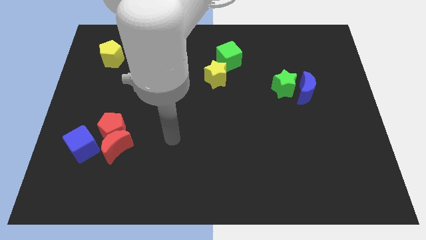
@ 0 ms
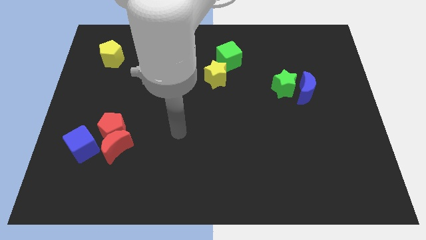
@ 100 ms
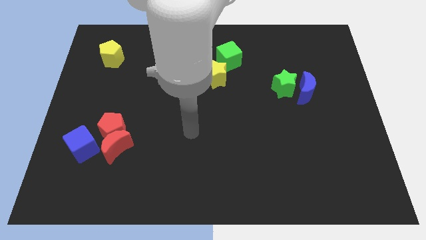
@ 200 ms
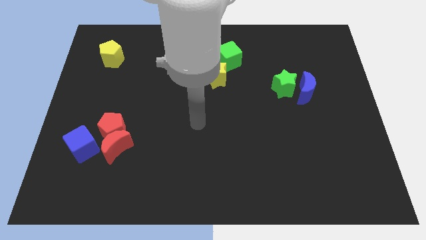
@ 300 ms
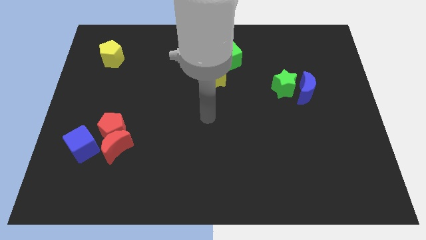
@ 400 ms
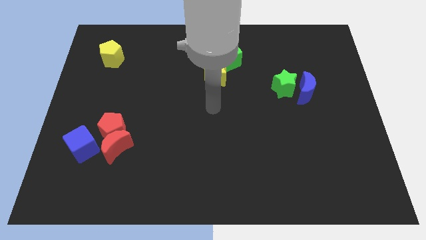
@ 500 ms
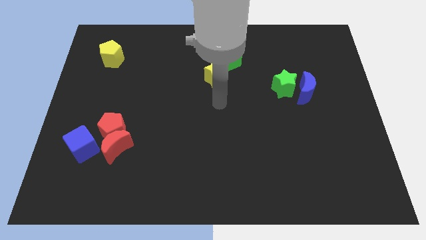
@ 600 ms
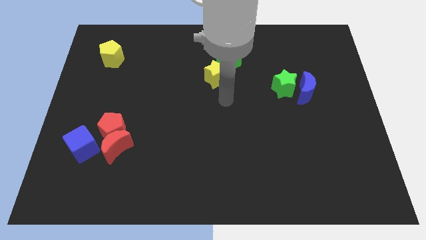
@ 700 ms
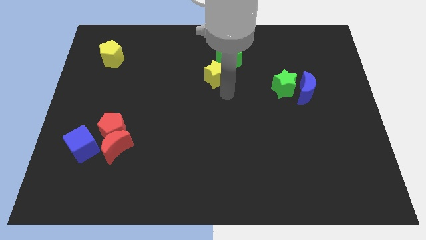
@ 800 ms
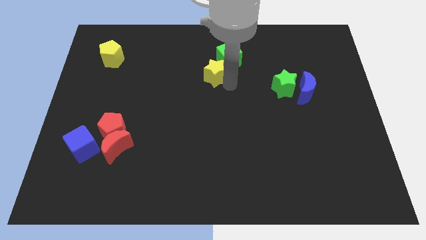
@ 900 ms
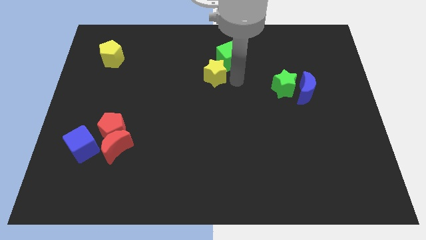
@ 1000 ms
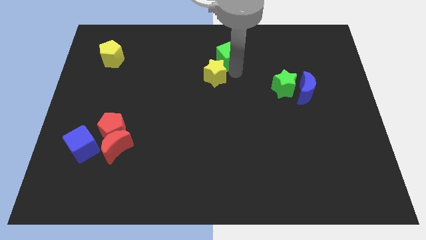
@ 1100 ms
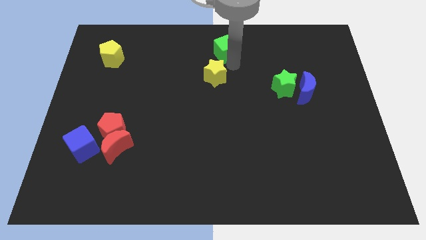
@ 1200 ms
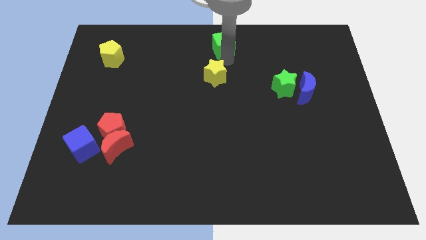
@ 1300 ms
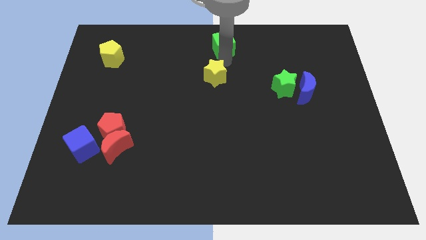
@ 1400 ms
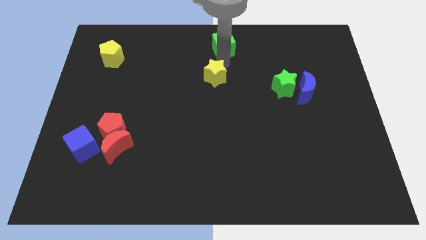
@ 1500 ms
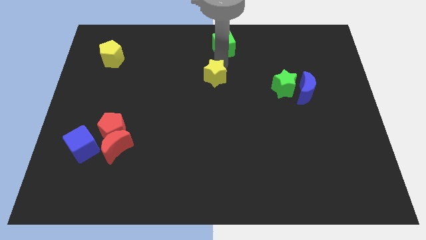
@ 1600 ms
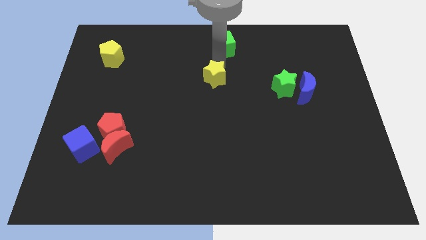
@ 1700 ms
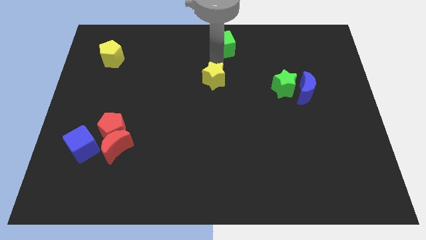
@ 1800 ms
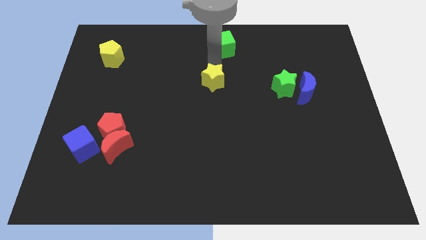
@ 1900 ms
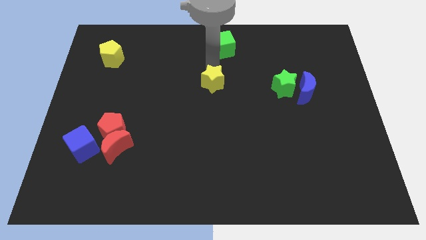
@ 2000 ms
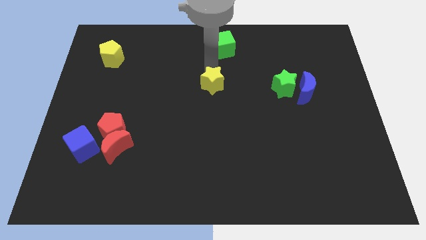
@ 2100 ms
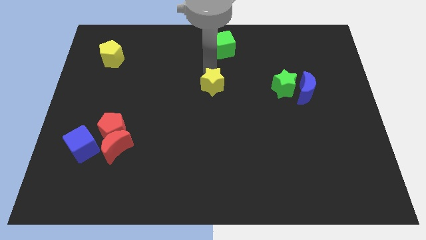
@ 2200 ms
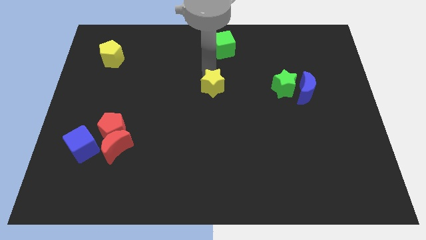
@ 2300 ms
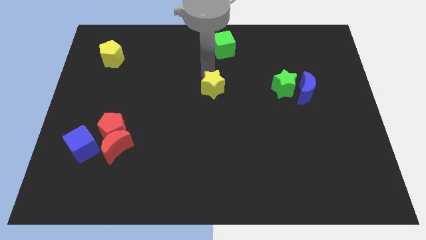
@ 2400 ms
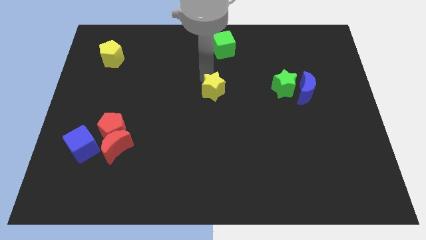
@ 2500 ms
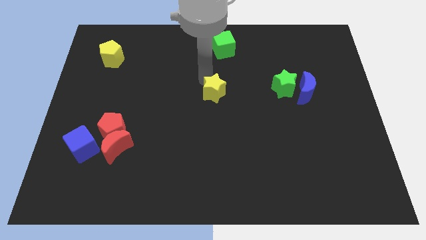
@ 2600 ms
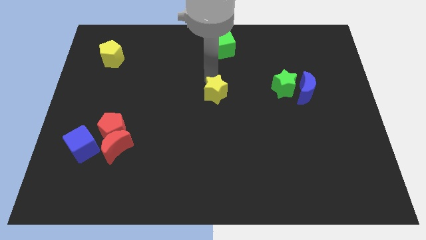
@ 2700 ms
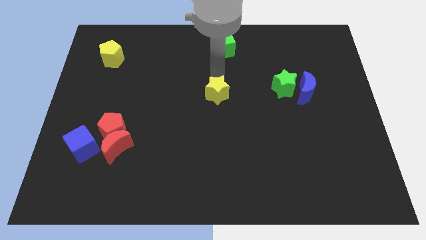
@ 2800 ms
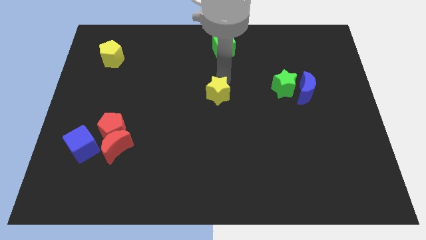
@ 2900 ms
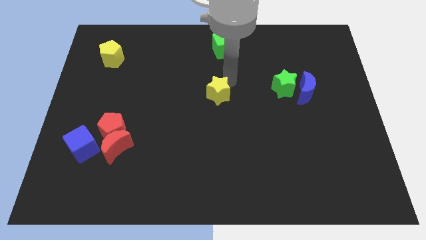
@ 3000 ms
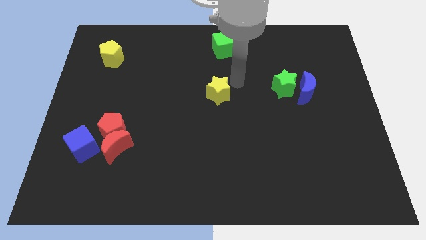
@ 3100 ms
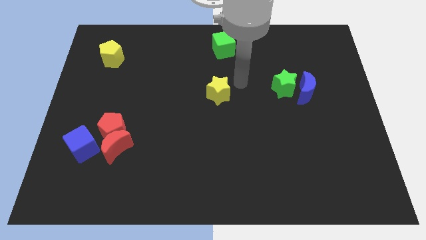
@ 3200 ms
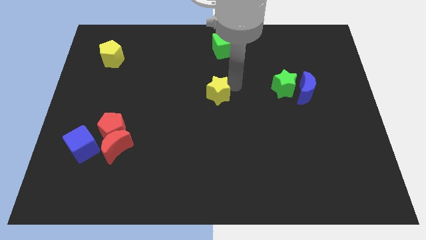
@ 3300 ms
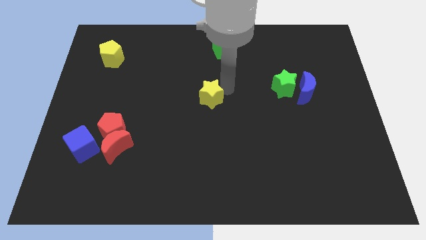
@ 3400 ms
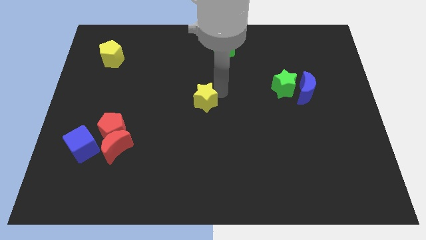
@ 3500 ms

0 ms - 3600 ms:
slightly slide the yellow star downwards and then left

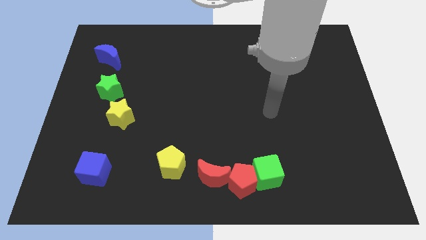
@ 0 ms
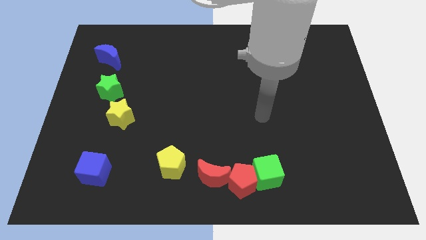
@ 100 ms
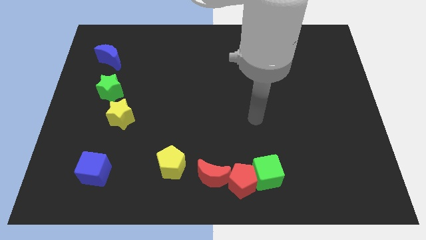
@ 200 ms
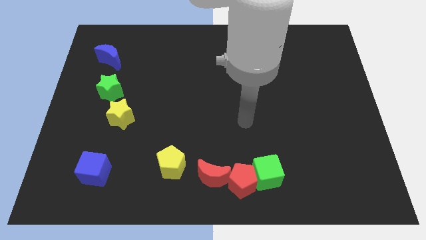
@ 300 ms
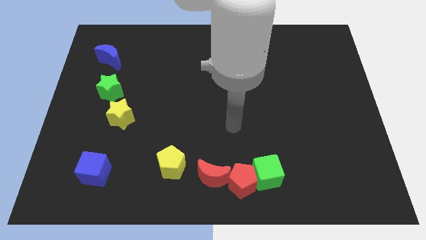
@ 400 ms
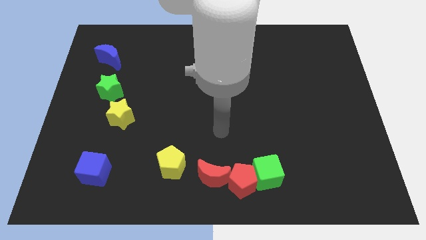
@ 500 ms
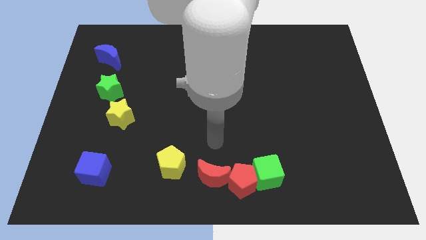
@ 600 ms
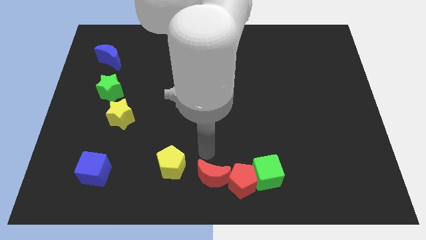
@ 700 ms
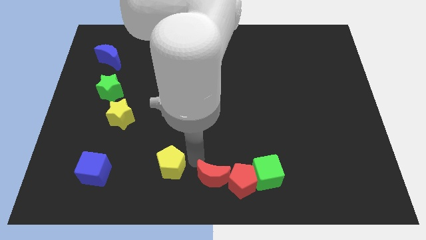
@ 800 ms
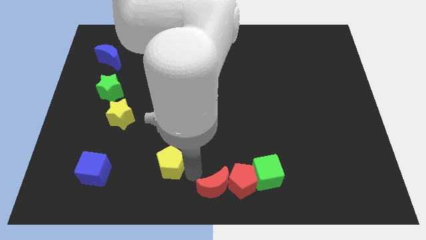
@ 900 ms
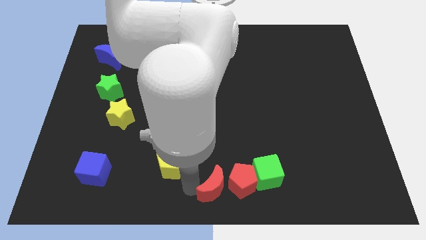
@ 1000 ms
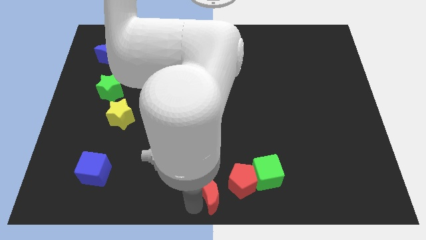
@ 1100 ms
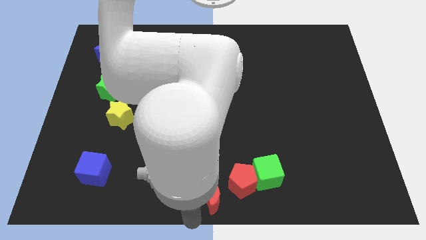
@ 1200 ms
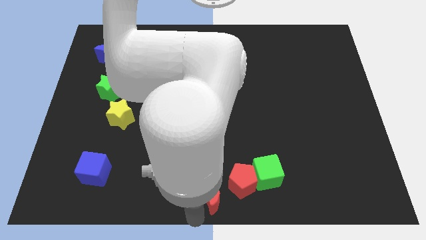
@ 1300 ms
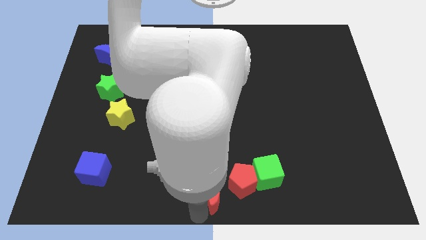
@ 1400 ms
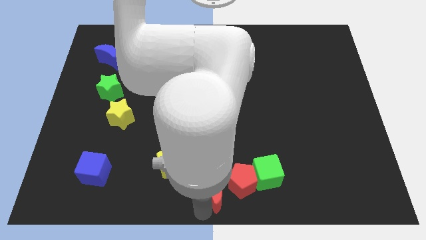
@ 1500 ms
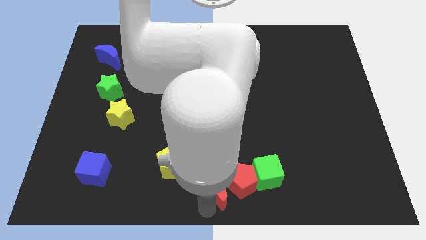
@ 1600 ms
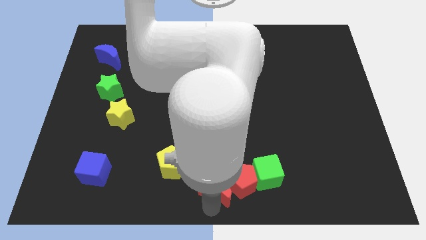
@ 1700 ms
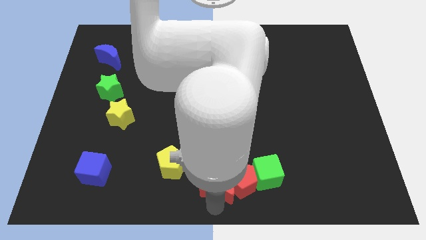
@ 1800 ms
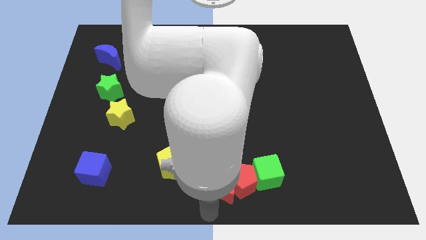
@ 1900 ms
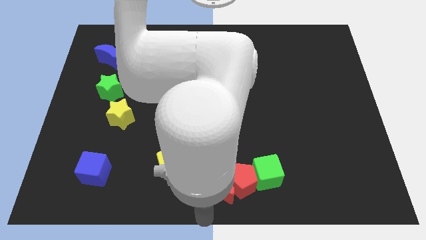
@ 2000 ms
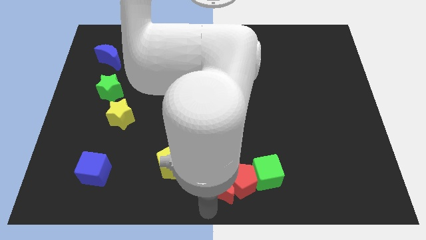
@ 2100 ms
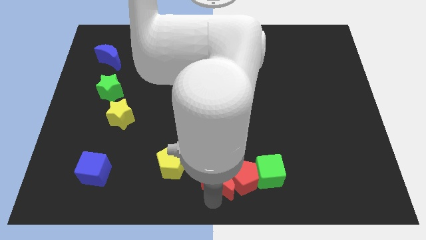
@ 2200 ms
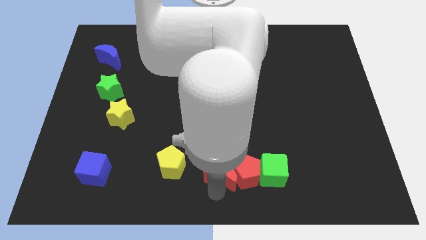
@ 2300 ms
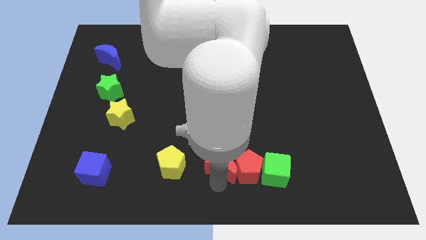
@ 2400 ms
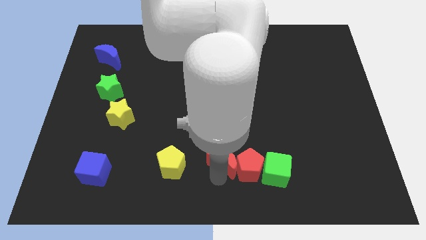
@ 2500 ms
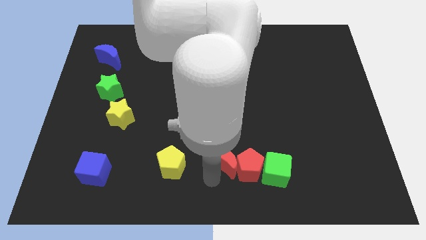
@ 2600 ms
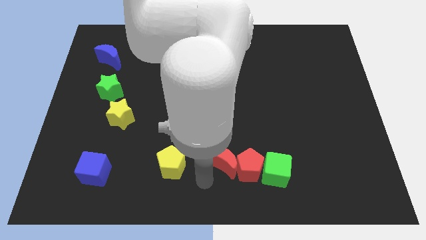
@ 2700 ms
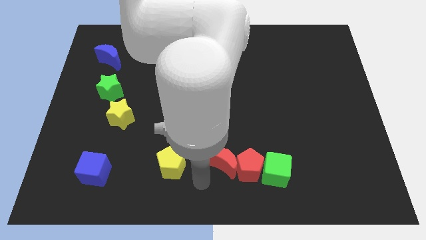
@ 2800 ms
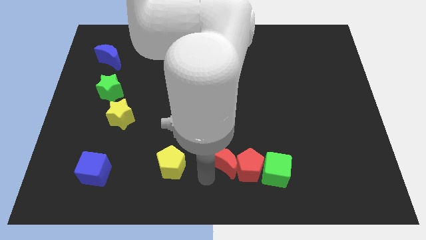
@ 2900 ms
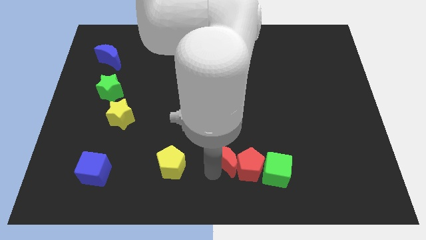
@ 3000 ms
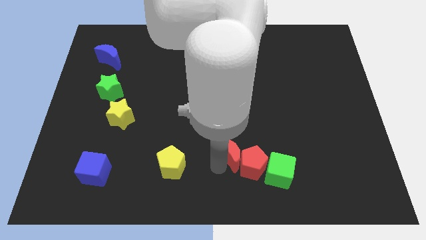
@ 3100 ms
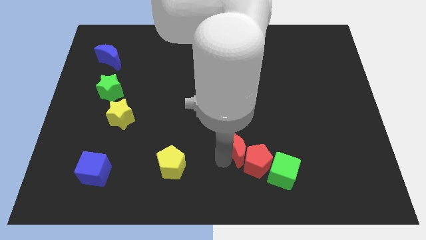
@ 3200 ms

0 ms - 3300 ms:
slightly push the red moon up and then right

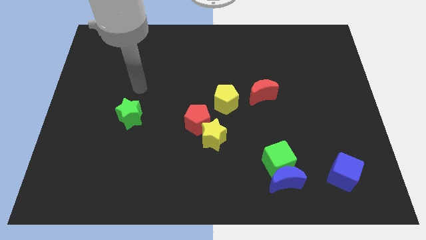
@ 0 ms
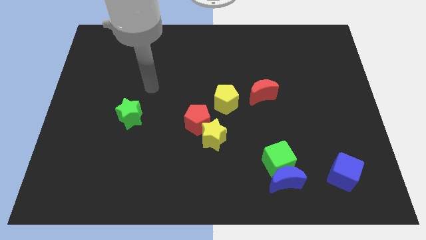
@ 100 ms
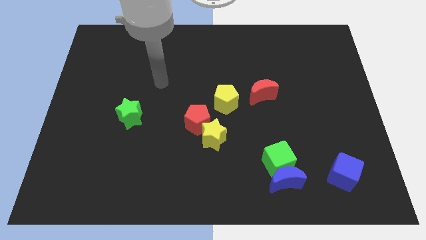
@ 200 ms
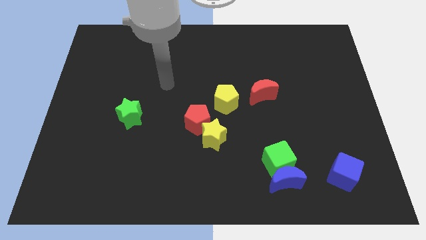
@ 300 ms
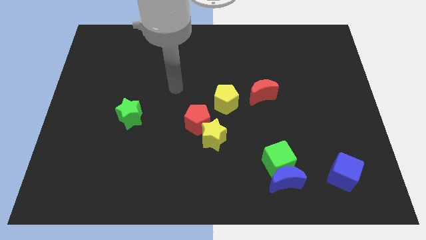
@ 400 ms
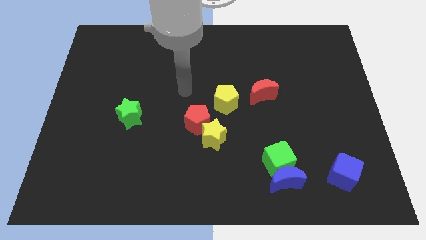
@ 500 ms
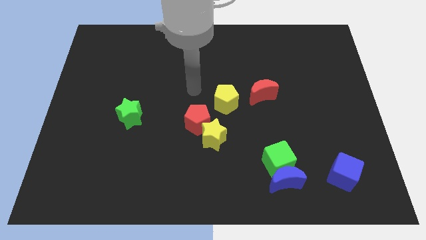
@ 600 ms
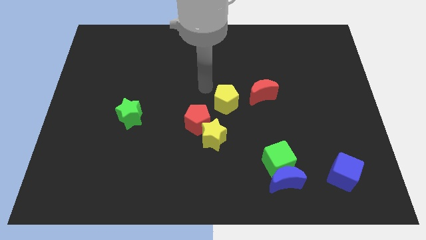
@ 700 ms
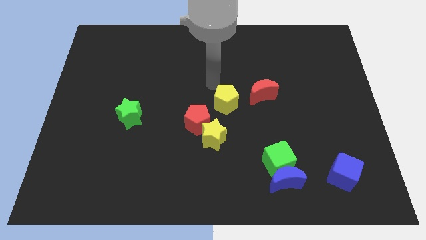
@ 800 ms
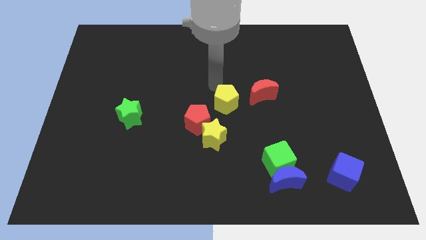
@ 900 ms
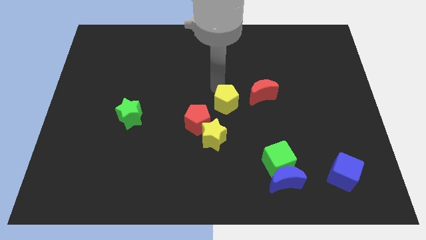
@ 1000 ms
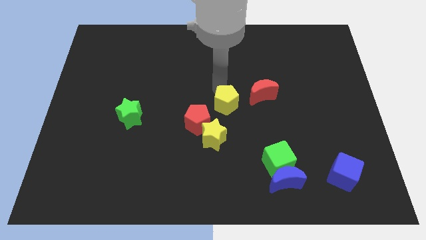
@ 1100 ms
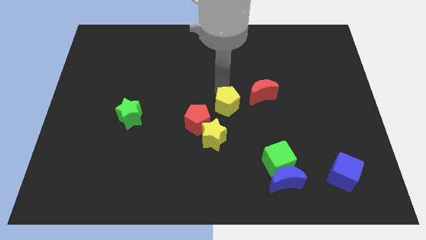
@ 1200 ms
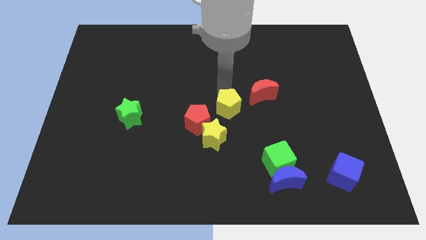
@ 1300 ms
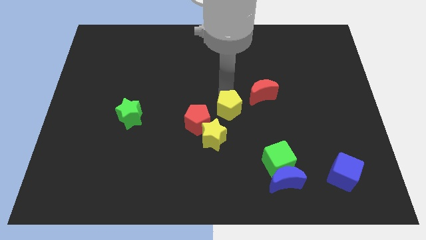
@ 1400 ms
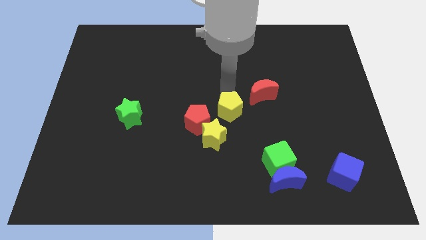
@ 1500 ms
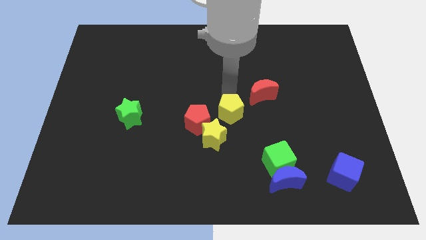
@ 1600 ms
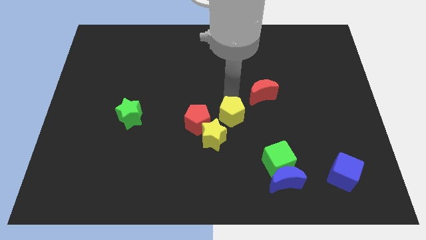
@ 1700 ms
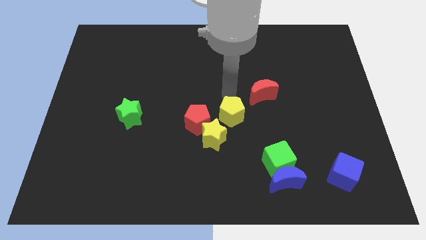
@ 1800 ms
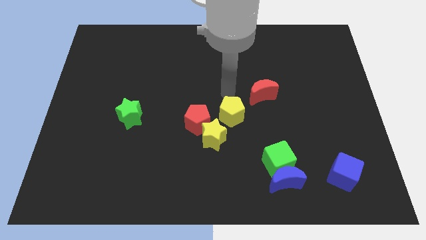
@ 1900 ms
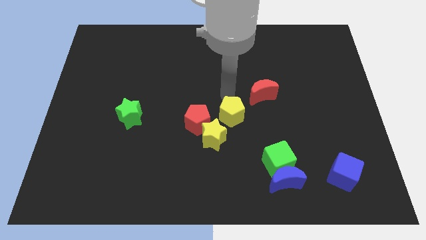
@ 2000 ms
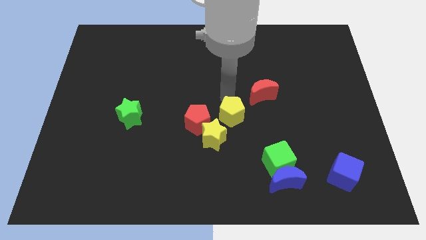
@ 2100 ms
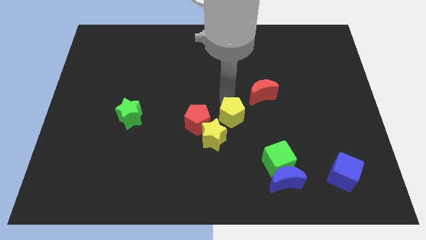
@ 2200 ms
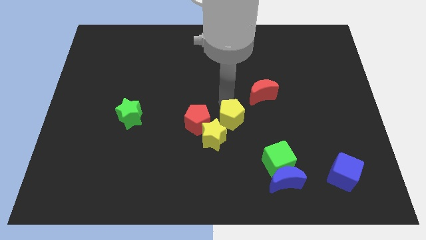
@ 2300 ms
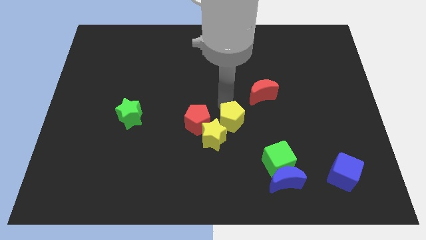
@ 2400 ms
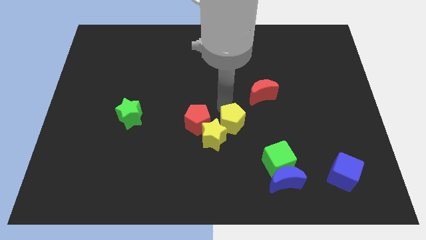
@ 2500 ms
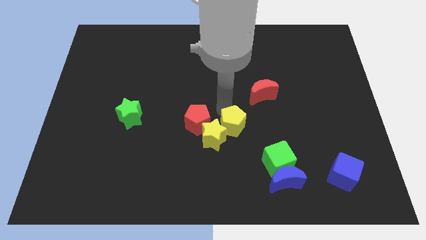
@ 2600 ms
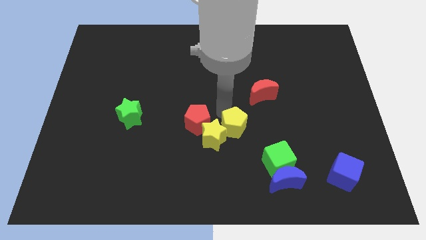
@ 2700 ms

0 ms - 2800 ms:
slide the yellow pentagon down a bit
